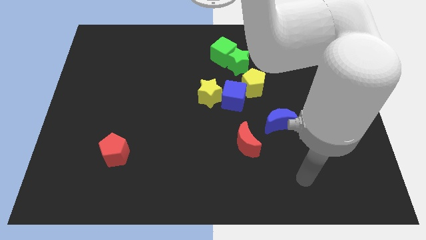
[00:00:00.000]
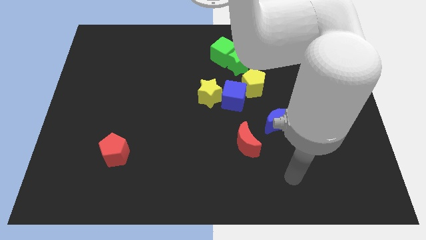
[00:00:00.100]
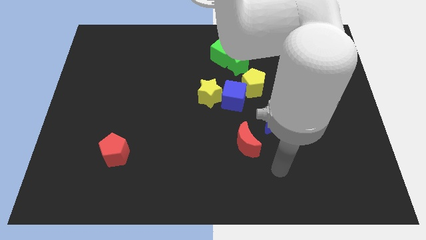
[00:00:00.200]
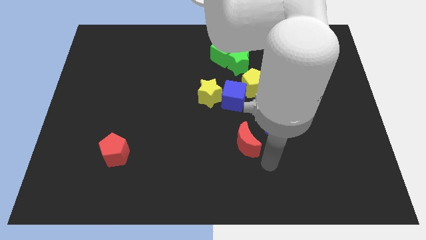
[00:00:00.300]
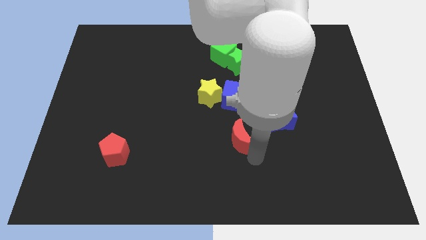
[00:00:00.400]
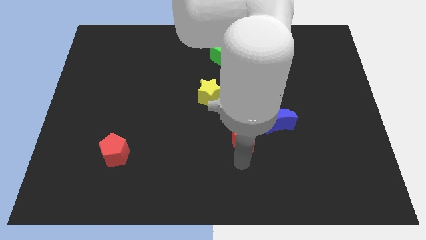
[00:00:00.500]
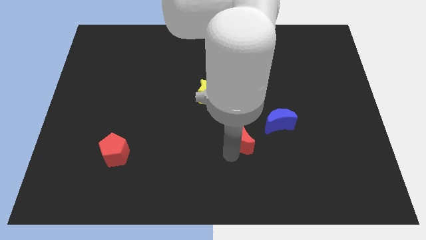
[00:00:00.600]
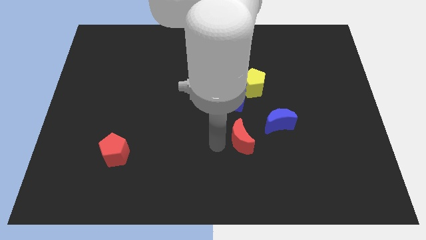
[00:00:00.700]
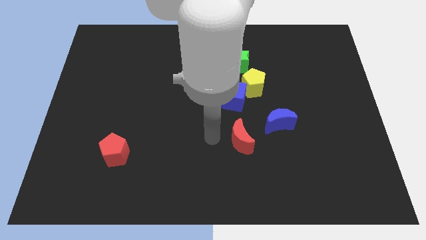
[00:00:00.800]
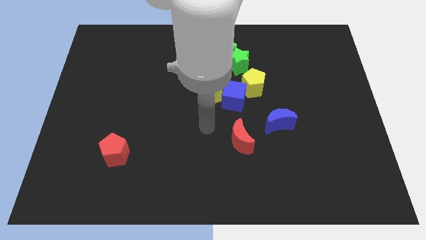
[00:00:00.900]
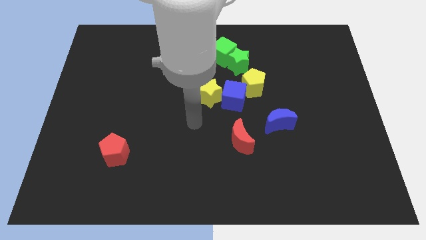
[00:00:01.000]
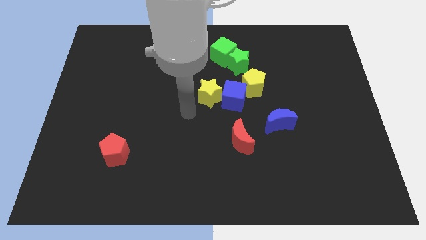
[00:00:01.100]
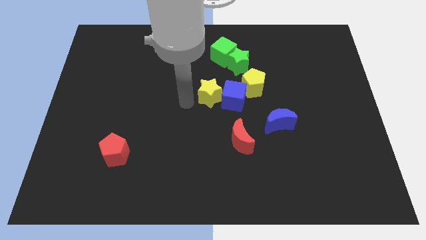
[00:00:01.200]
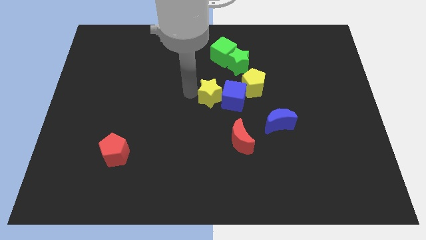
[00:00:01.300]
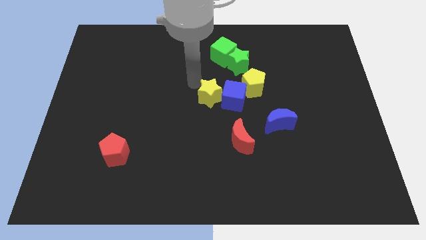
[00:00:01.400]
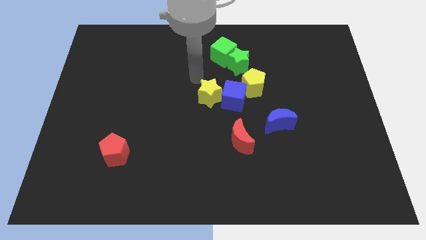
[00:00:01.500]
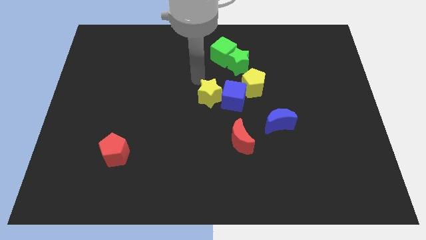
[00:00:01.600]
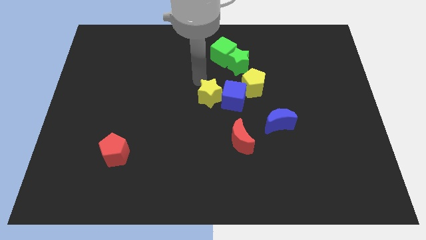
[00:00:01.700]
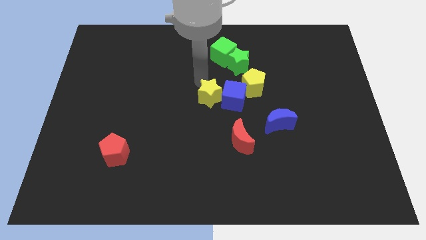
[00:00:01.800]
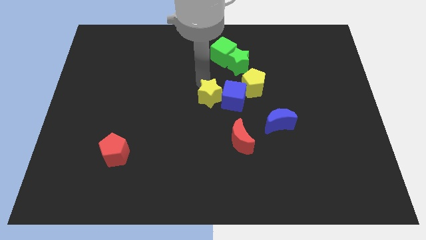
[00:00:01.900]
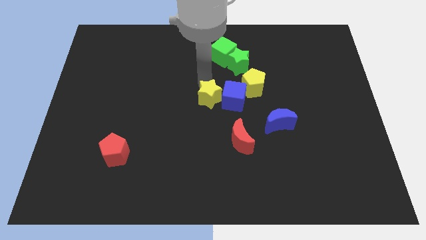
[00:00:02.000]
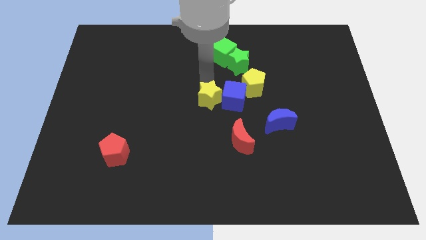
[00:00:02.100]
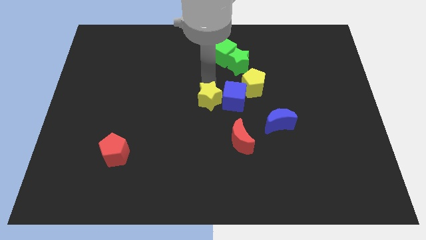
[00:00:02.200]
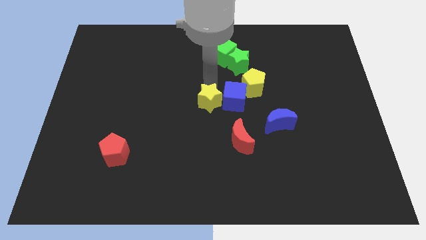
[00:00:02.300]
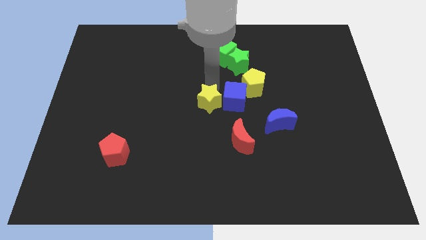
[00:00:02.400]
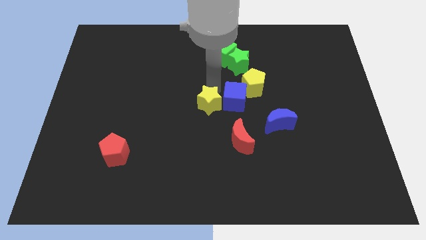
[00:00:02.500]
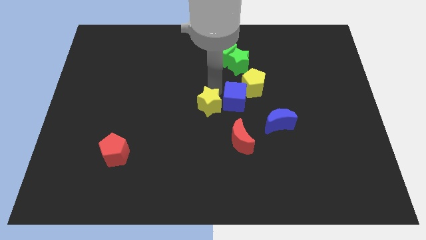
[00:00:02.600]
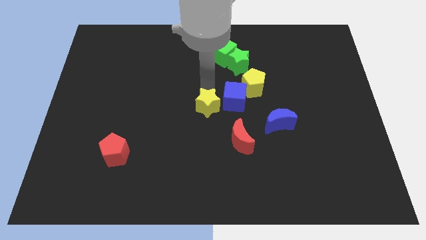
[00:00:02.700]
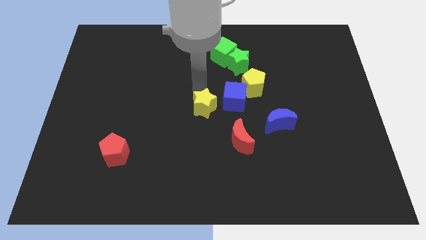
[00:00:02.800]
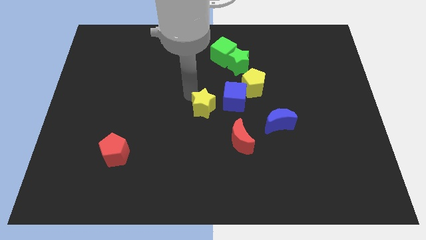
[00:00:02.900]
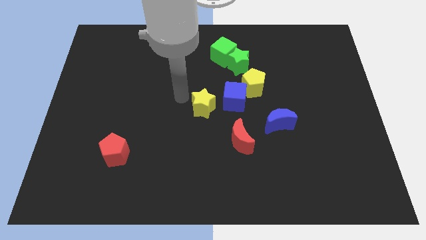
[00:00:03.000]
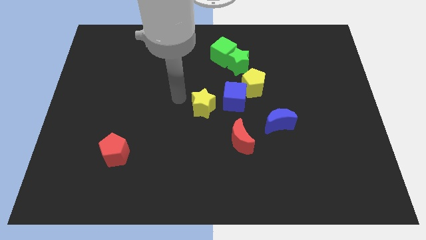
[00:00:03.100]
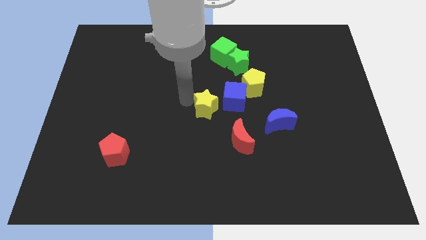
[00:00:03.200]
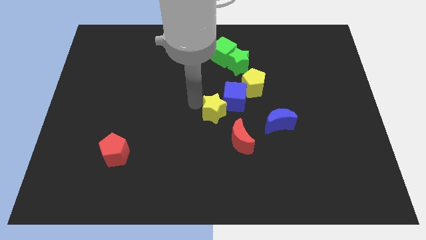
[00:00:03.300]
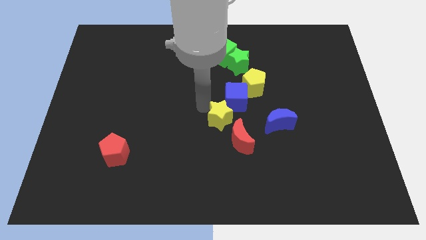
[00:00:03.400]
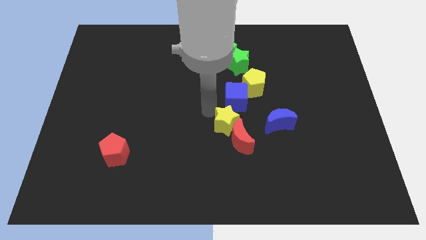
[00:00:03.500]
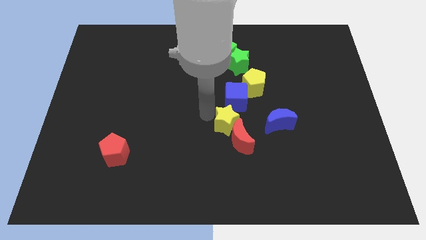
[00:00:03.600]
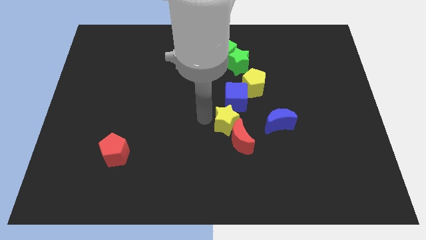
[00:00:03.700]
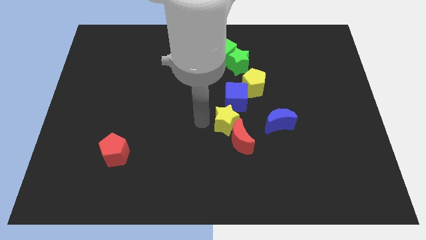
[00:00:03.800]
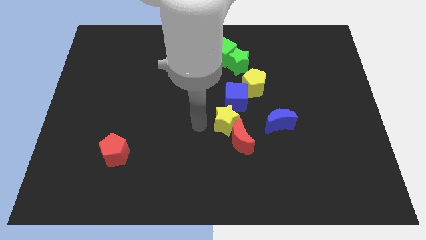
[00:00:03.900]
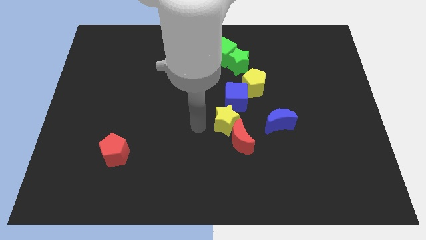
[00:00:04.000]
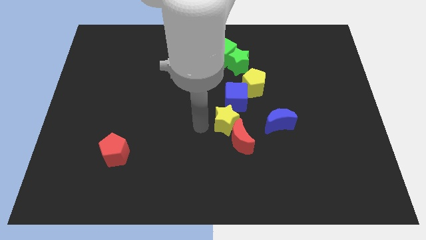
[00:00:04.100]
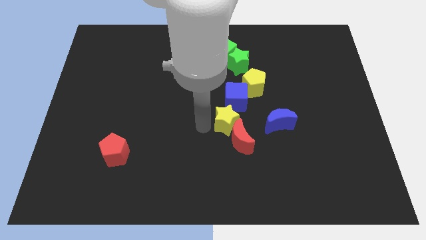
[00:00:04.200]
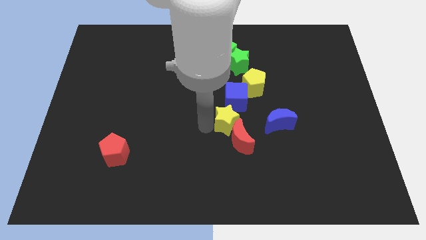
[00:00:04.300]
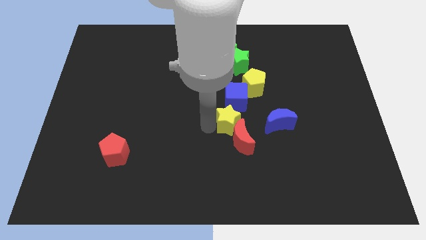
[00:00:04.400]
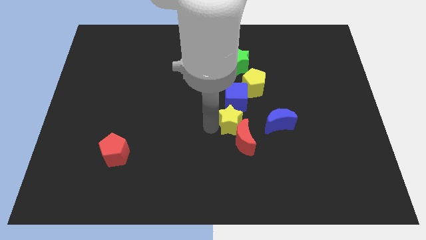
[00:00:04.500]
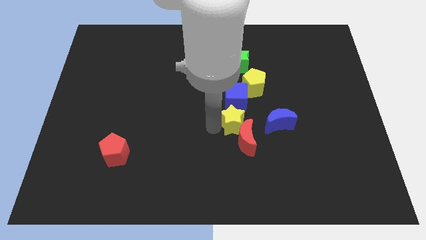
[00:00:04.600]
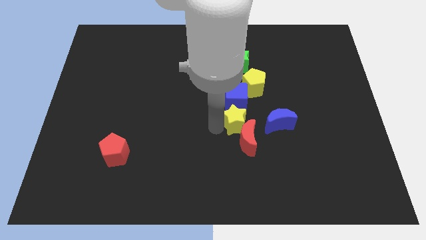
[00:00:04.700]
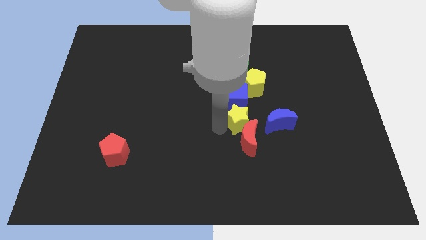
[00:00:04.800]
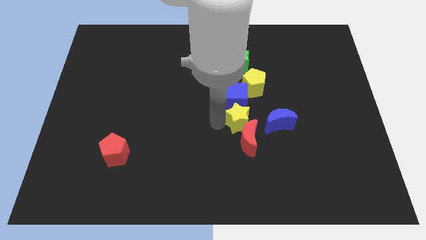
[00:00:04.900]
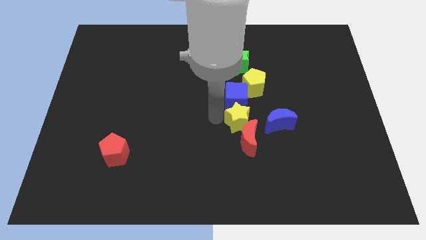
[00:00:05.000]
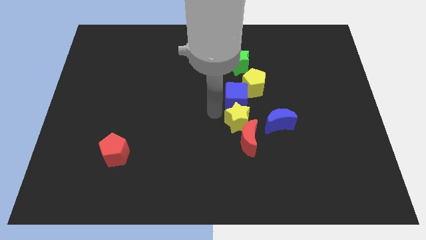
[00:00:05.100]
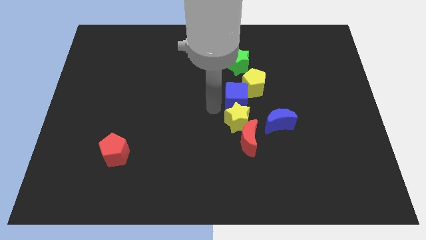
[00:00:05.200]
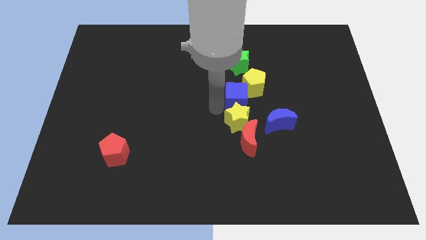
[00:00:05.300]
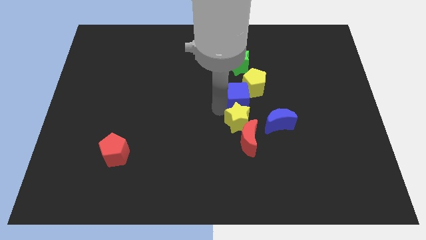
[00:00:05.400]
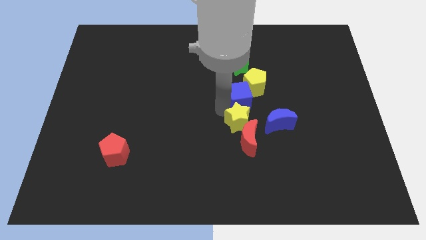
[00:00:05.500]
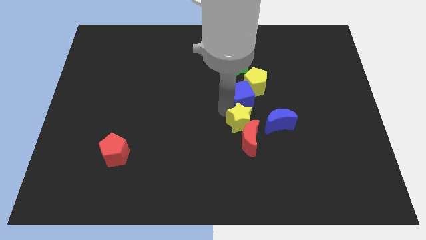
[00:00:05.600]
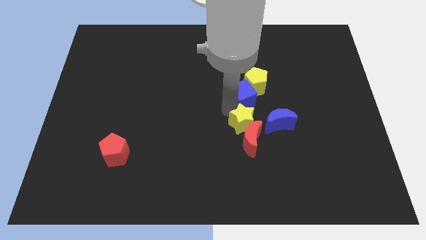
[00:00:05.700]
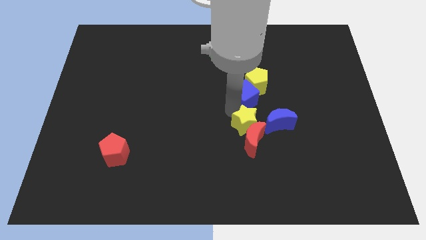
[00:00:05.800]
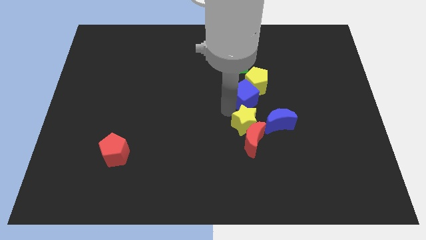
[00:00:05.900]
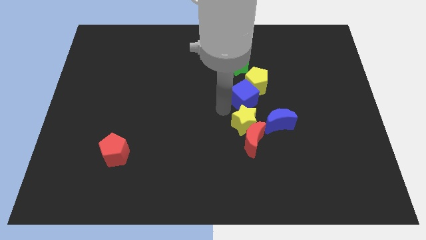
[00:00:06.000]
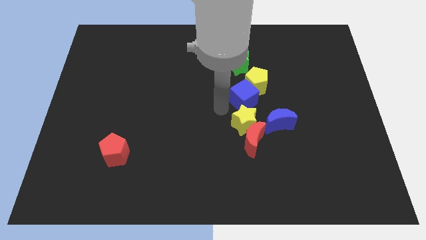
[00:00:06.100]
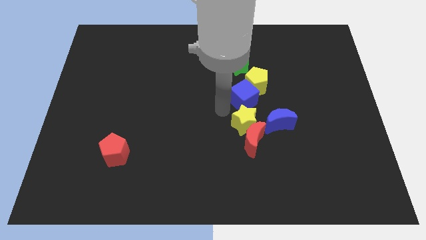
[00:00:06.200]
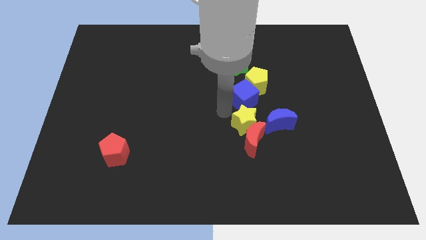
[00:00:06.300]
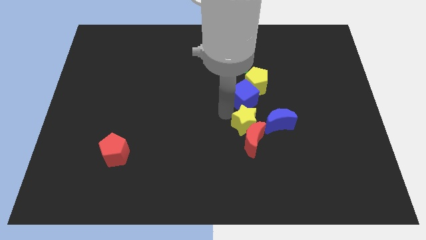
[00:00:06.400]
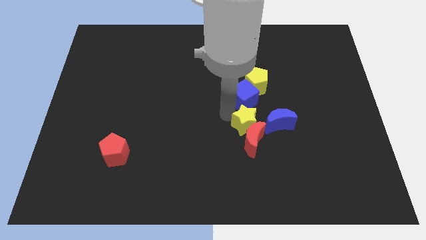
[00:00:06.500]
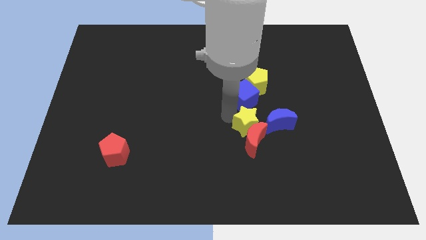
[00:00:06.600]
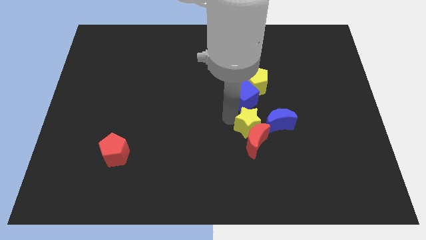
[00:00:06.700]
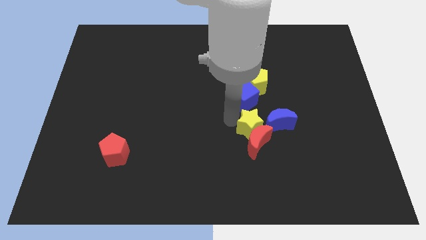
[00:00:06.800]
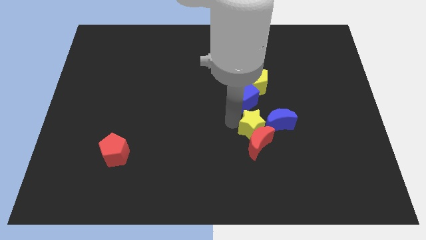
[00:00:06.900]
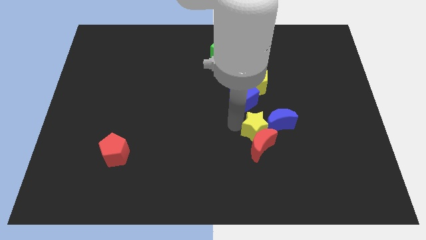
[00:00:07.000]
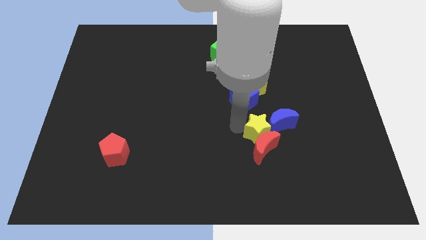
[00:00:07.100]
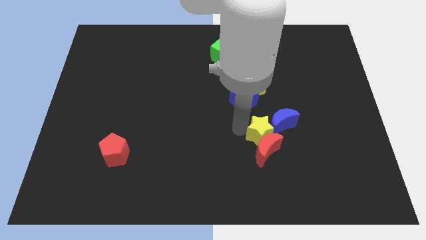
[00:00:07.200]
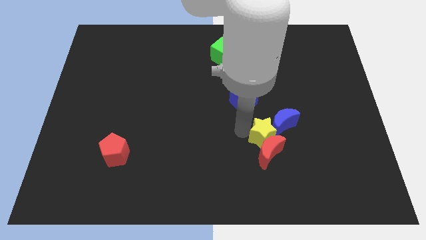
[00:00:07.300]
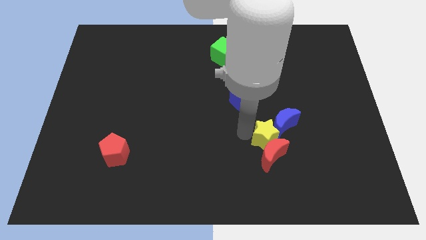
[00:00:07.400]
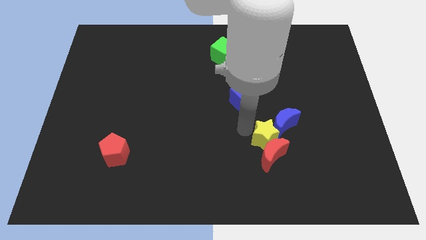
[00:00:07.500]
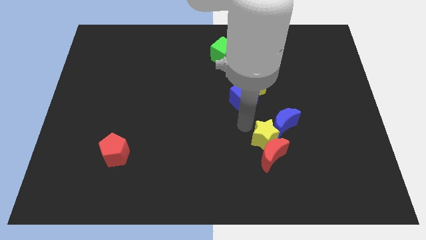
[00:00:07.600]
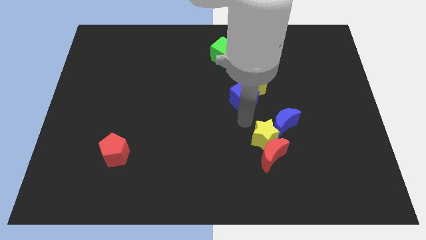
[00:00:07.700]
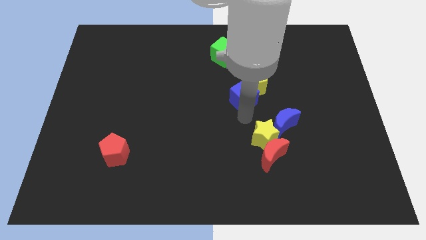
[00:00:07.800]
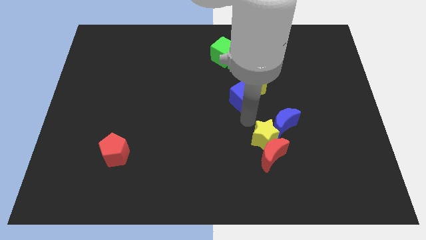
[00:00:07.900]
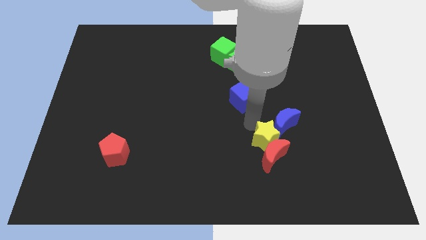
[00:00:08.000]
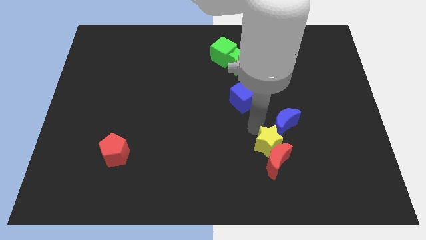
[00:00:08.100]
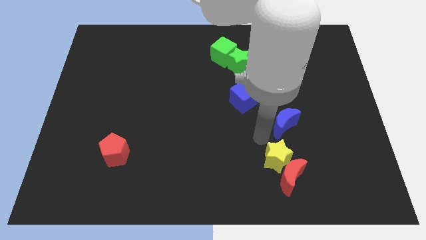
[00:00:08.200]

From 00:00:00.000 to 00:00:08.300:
slide the yellow star downwards and right
